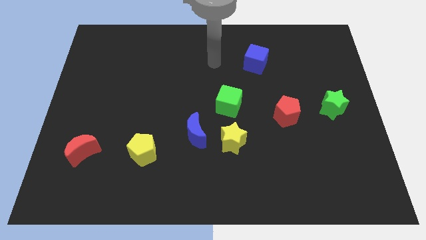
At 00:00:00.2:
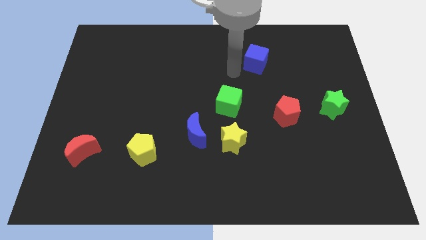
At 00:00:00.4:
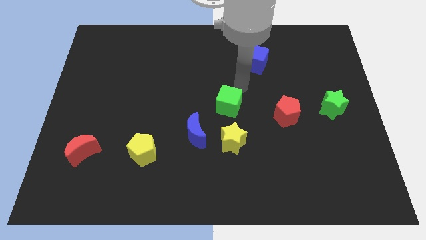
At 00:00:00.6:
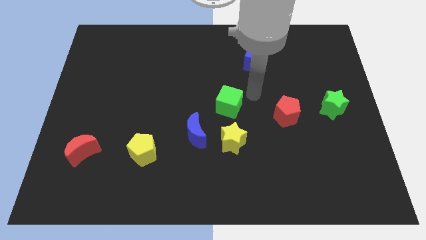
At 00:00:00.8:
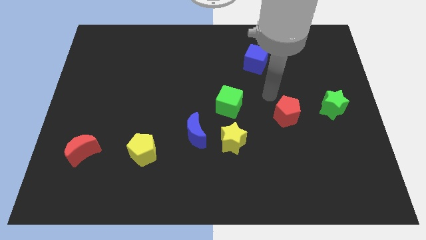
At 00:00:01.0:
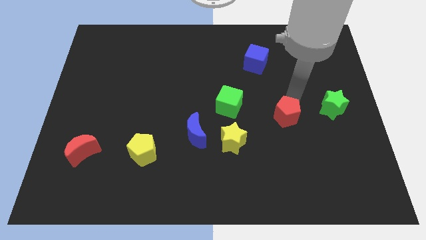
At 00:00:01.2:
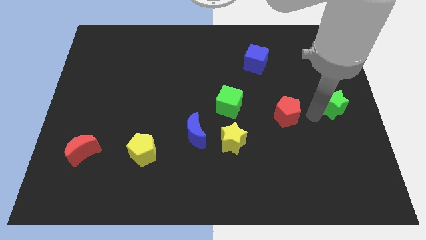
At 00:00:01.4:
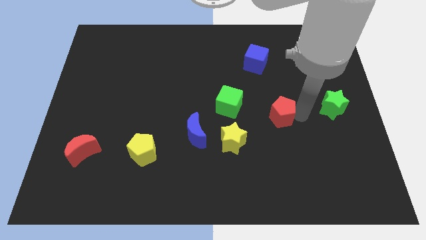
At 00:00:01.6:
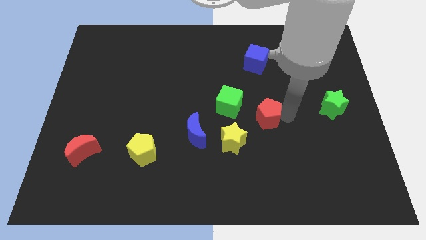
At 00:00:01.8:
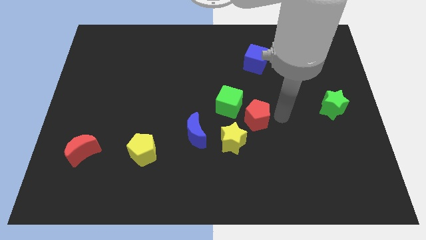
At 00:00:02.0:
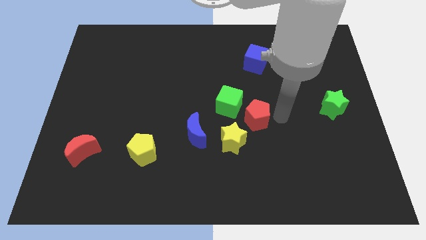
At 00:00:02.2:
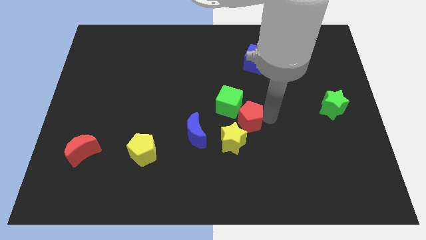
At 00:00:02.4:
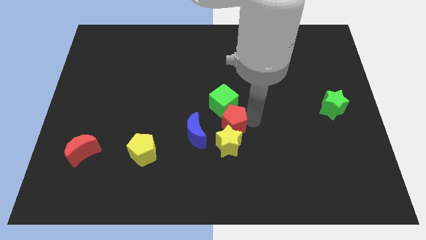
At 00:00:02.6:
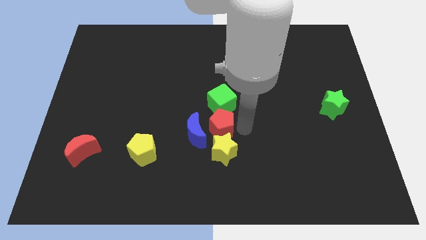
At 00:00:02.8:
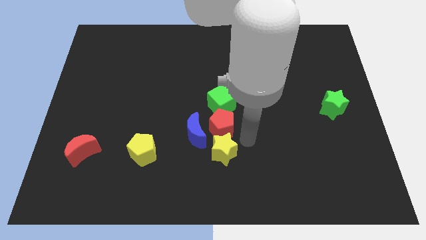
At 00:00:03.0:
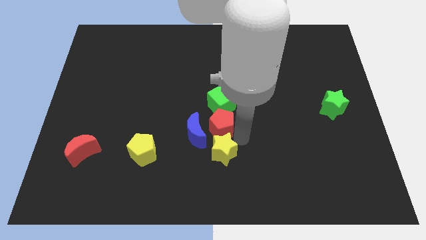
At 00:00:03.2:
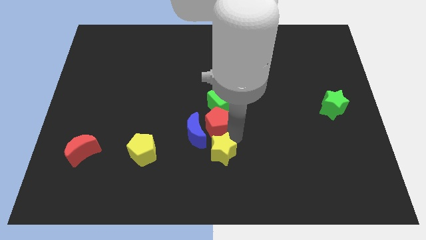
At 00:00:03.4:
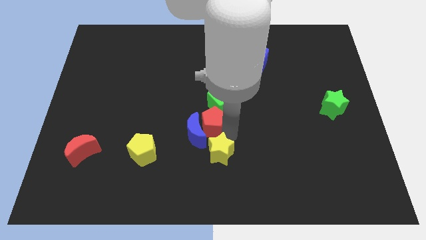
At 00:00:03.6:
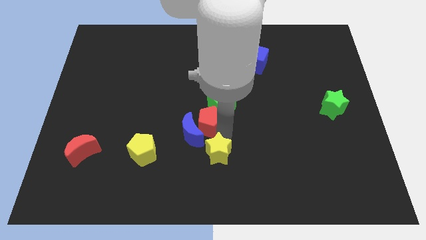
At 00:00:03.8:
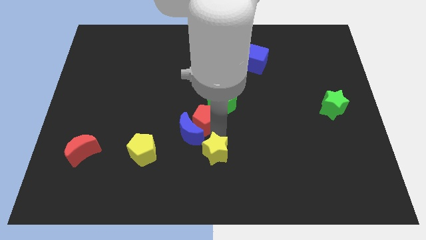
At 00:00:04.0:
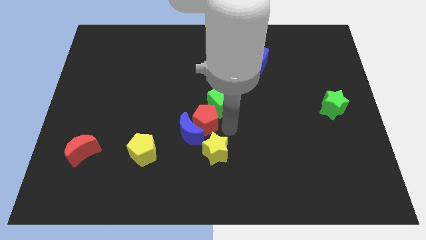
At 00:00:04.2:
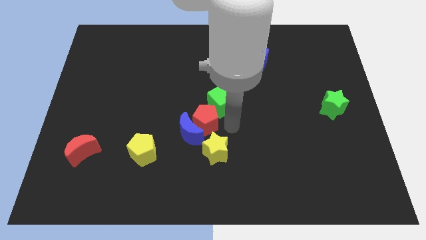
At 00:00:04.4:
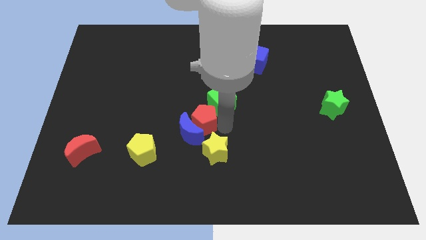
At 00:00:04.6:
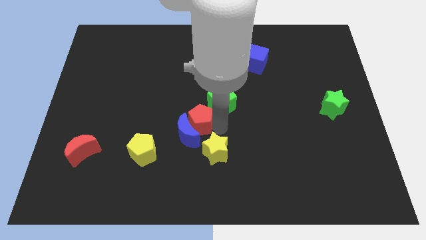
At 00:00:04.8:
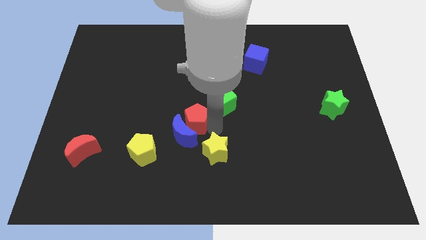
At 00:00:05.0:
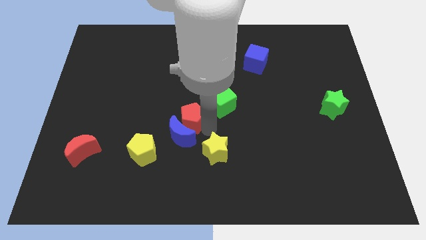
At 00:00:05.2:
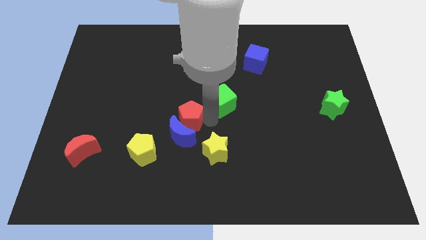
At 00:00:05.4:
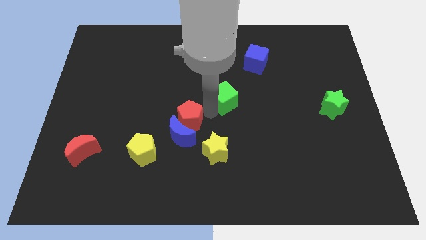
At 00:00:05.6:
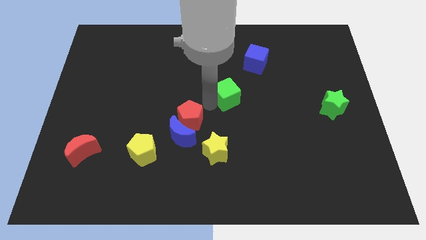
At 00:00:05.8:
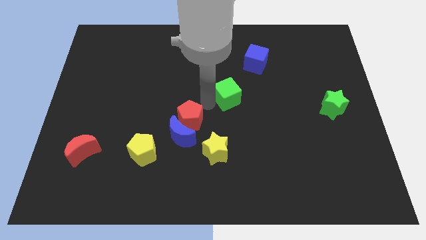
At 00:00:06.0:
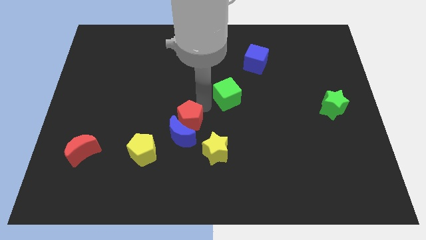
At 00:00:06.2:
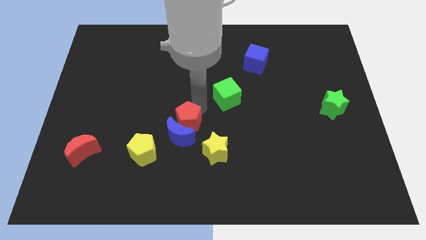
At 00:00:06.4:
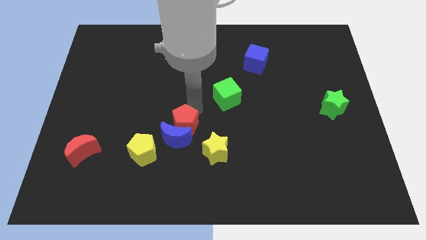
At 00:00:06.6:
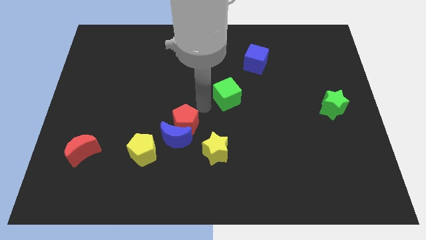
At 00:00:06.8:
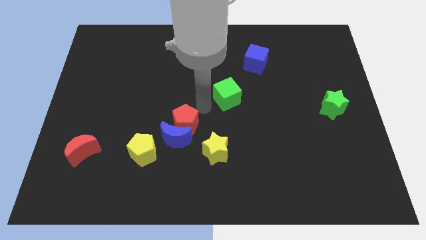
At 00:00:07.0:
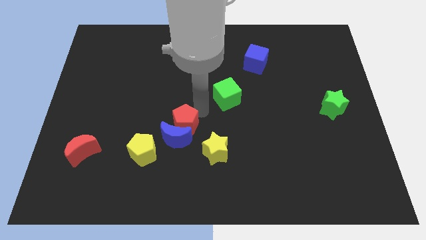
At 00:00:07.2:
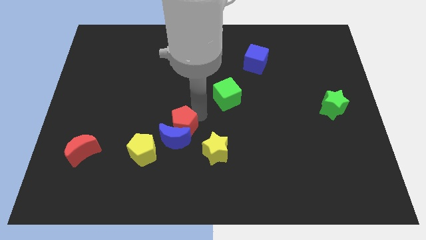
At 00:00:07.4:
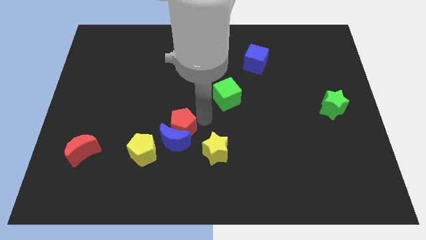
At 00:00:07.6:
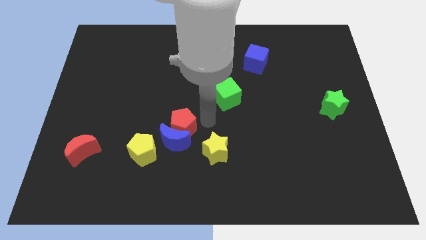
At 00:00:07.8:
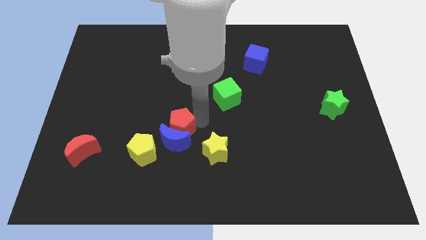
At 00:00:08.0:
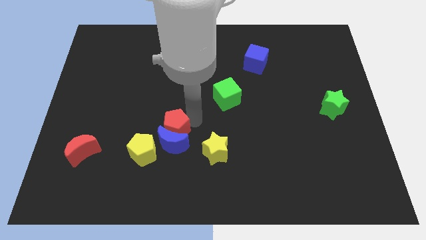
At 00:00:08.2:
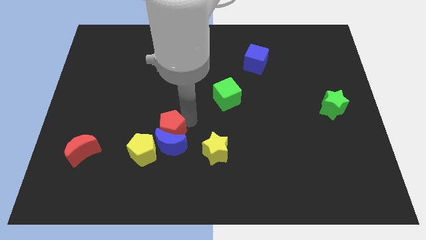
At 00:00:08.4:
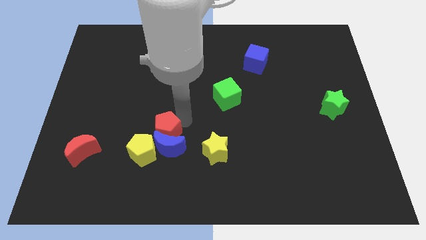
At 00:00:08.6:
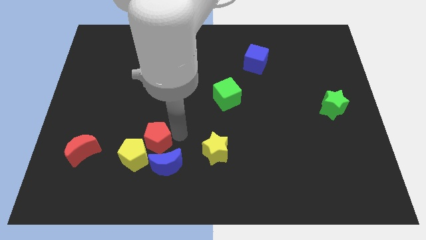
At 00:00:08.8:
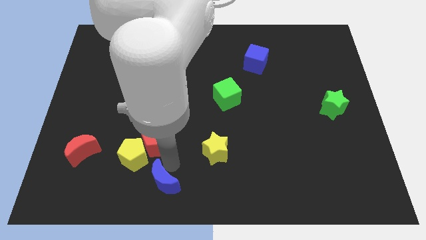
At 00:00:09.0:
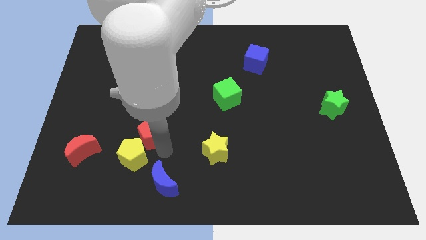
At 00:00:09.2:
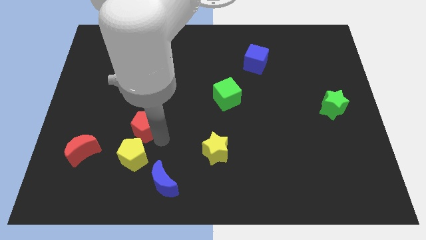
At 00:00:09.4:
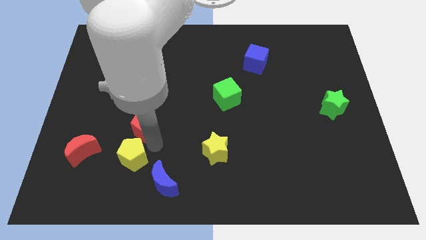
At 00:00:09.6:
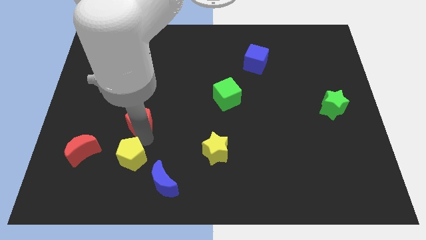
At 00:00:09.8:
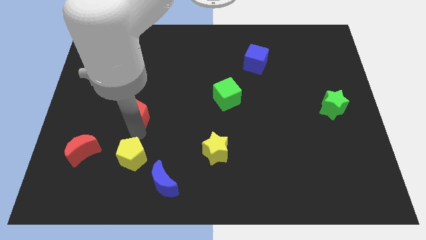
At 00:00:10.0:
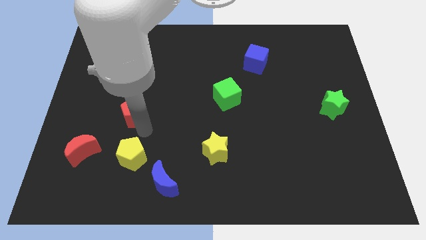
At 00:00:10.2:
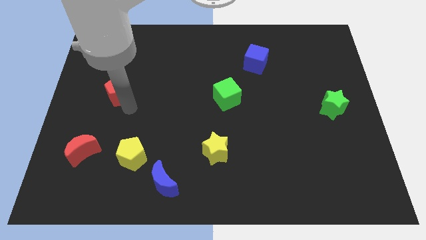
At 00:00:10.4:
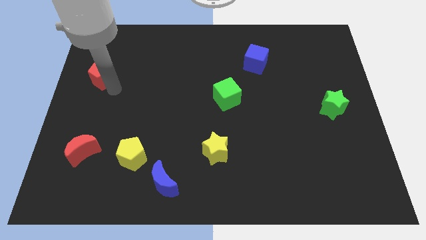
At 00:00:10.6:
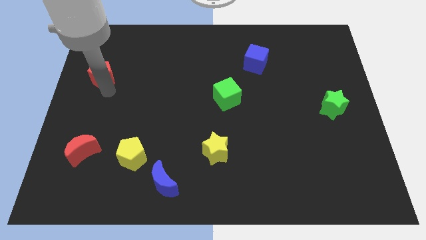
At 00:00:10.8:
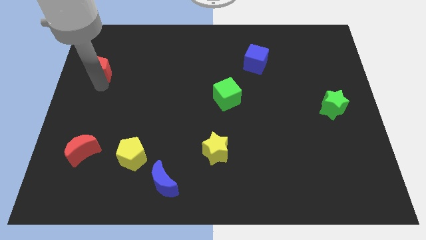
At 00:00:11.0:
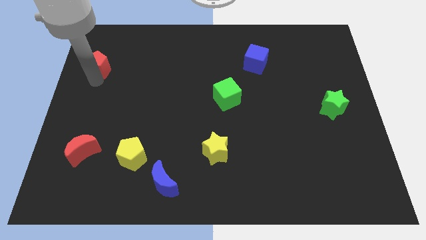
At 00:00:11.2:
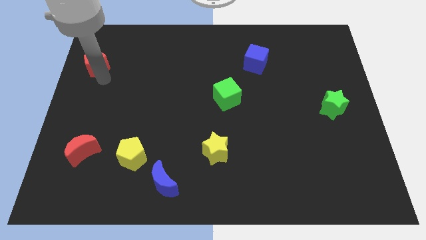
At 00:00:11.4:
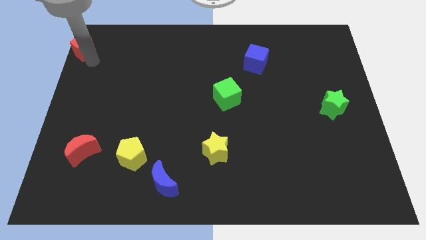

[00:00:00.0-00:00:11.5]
slide the red pentagon to the top left of the board
